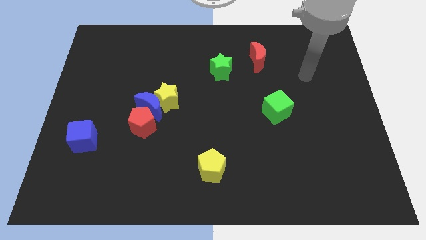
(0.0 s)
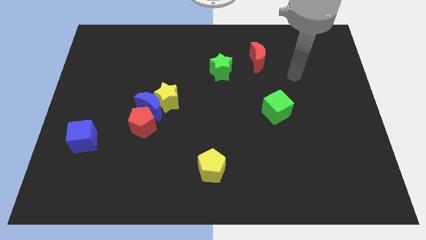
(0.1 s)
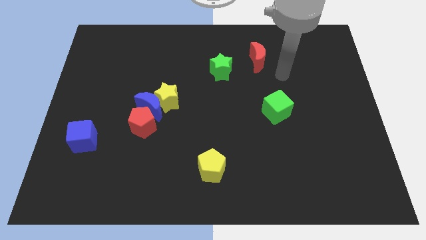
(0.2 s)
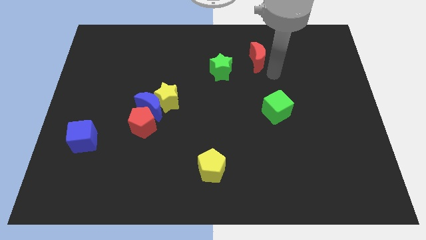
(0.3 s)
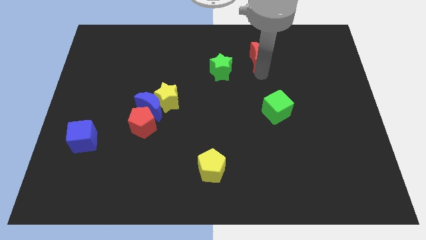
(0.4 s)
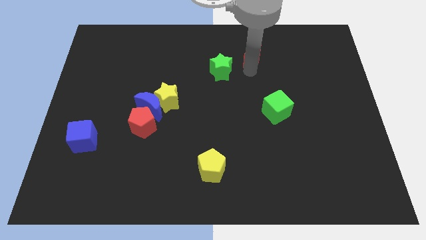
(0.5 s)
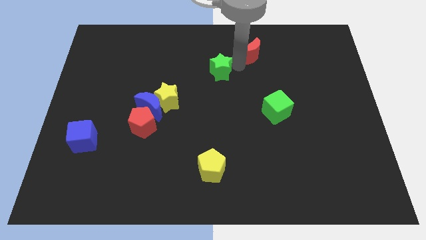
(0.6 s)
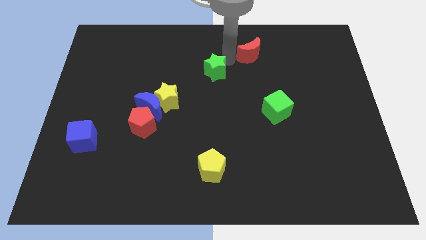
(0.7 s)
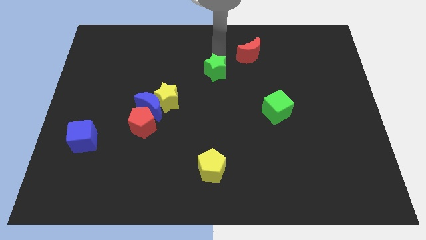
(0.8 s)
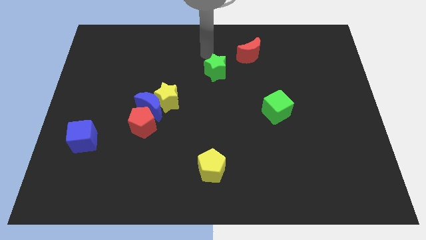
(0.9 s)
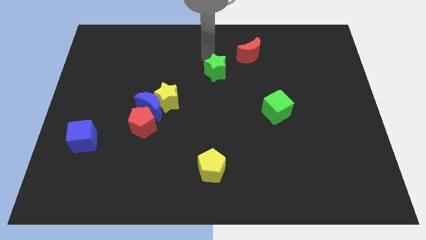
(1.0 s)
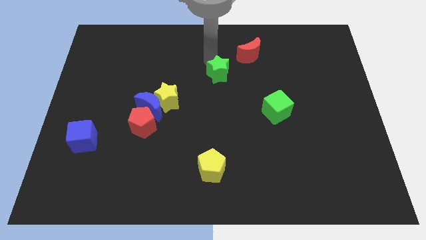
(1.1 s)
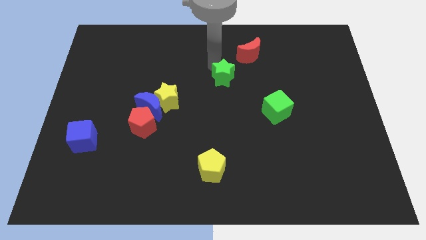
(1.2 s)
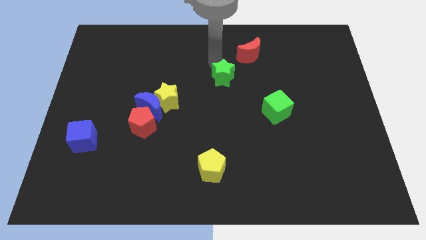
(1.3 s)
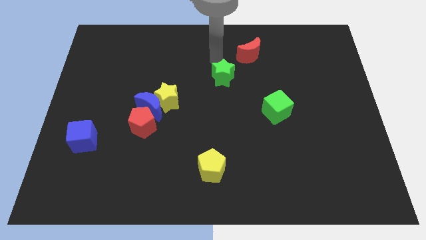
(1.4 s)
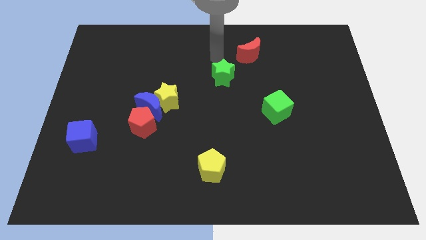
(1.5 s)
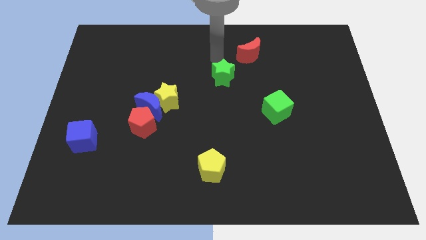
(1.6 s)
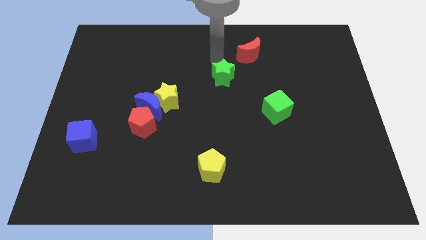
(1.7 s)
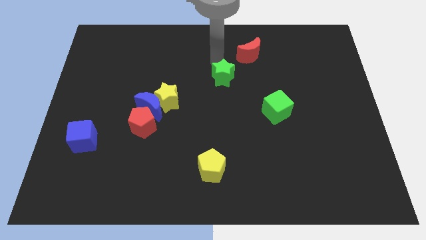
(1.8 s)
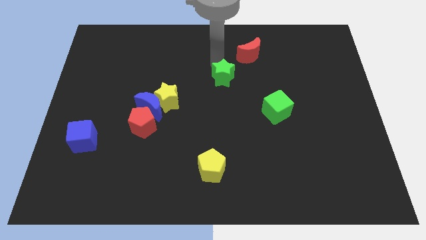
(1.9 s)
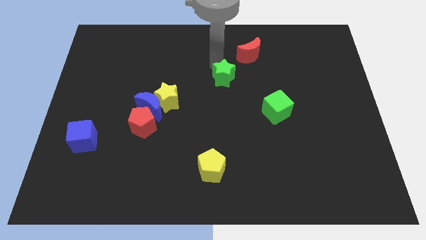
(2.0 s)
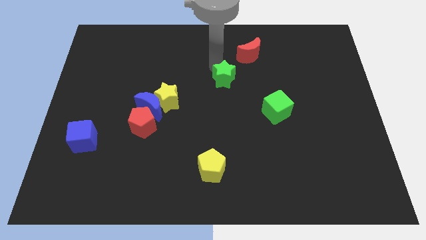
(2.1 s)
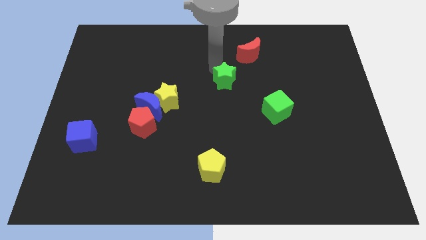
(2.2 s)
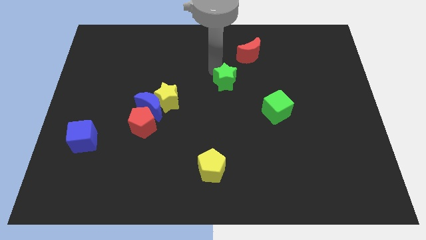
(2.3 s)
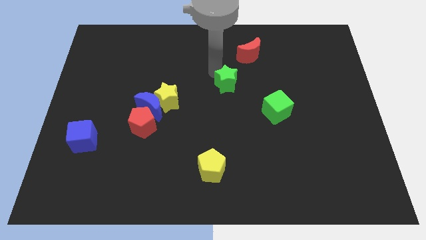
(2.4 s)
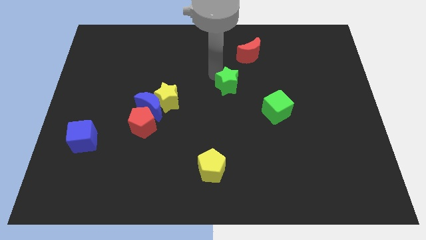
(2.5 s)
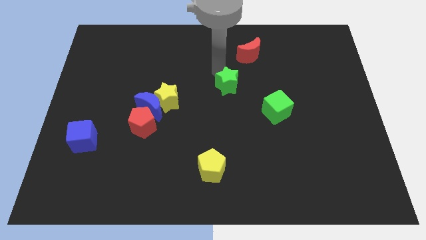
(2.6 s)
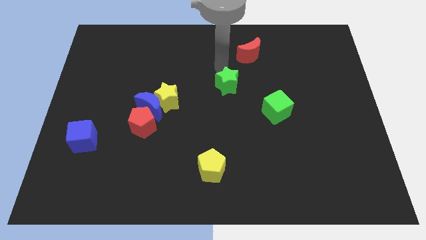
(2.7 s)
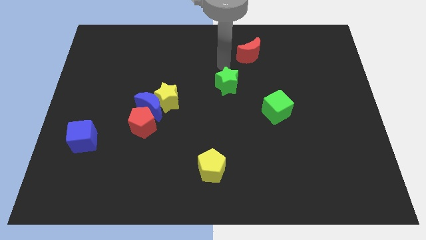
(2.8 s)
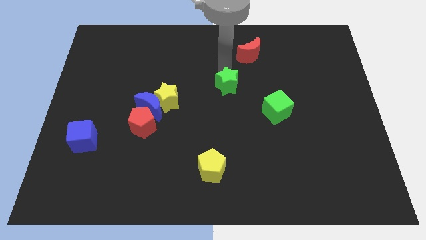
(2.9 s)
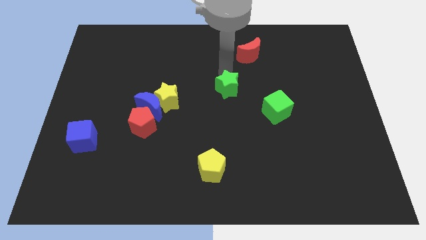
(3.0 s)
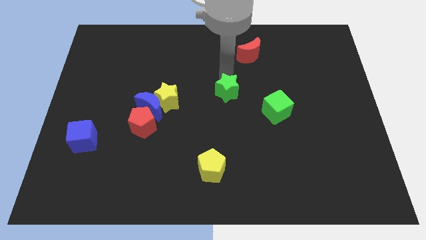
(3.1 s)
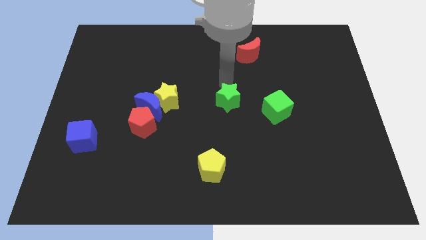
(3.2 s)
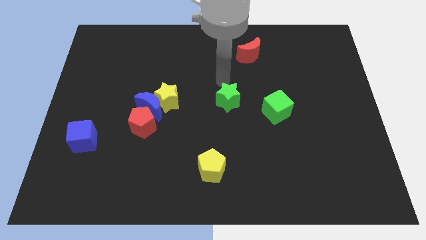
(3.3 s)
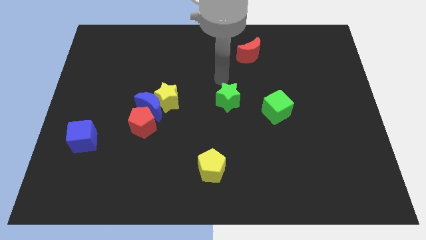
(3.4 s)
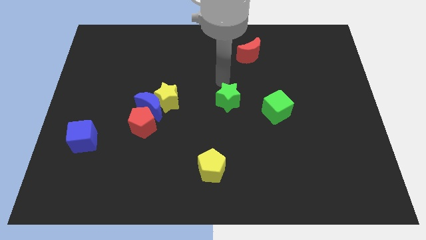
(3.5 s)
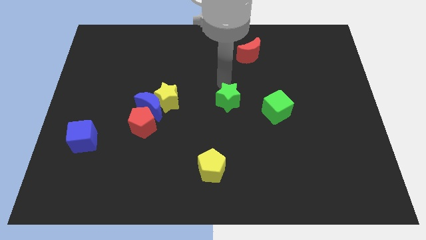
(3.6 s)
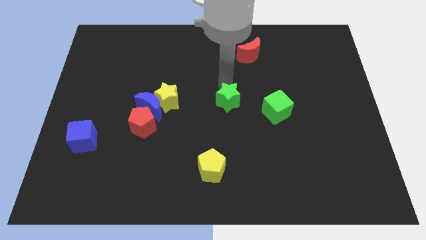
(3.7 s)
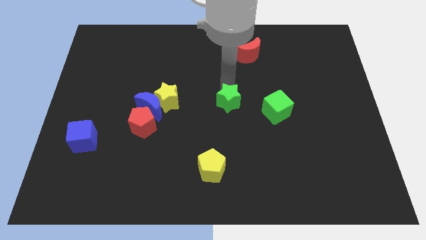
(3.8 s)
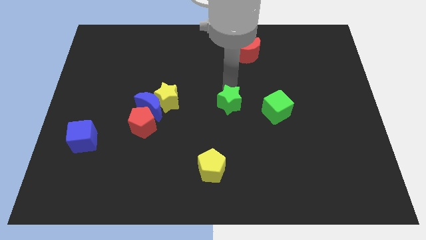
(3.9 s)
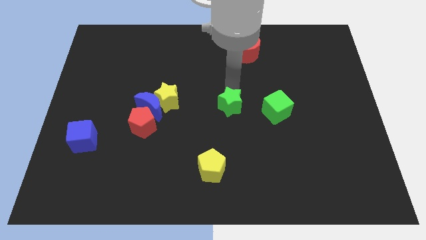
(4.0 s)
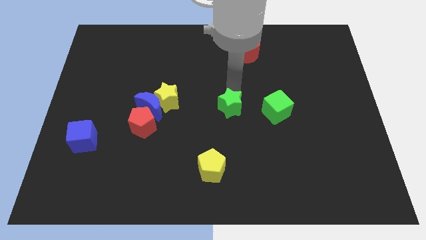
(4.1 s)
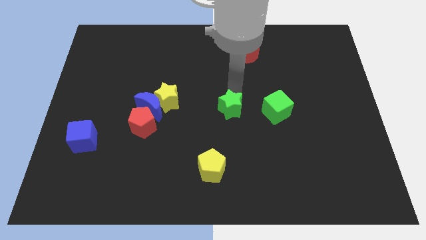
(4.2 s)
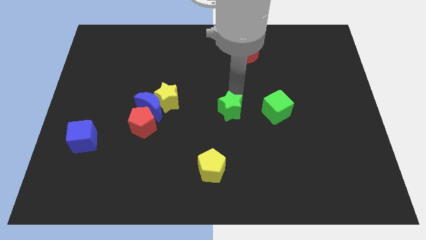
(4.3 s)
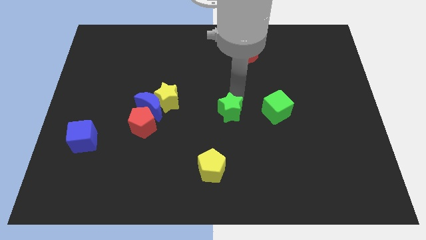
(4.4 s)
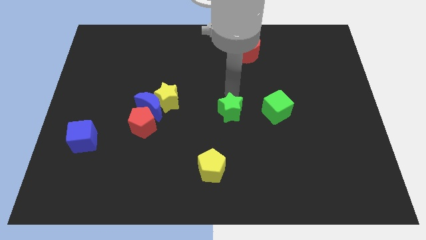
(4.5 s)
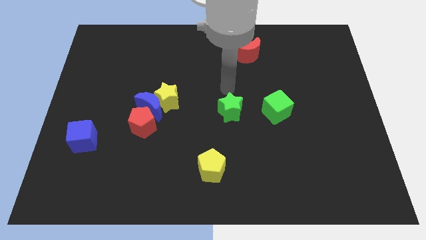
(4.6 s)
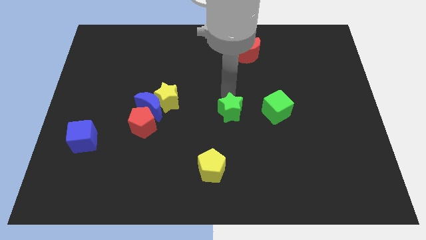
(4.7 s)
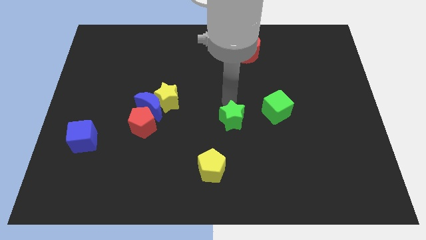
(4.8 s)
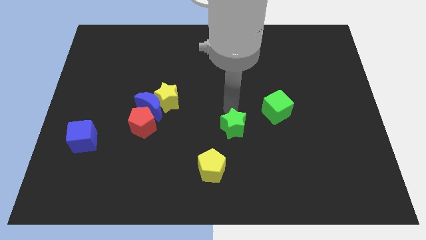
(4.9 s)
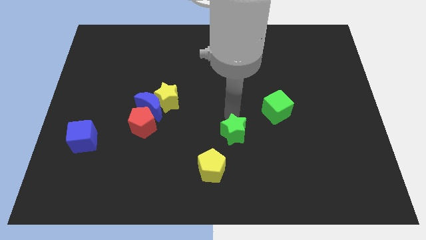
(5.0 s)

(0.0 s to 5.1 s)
put the green star diagonally up and to the right of the yellow pentagon

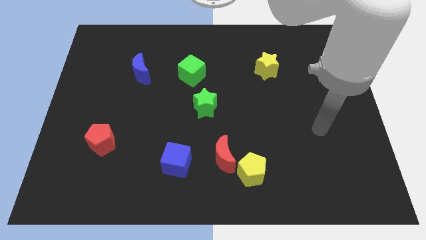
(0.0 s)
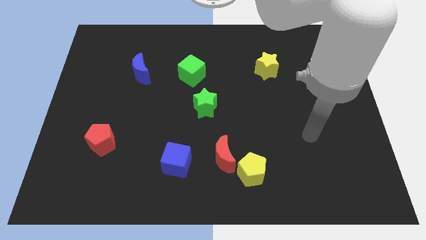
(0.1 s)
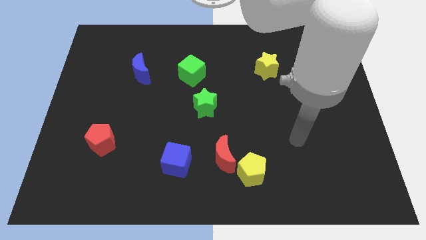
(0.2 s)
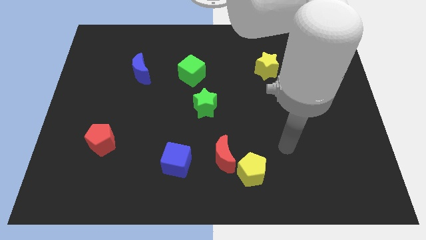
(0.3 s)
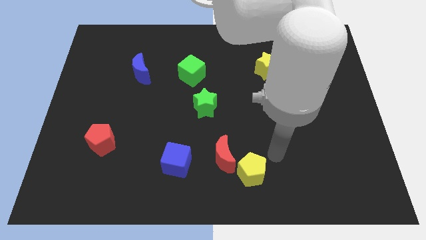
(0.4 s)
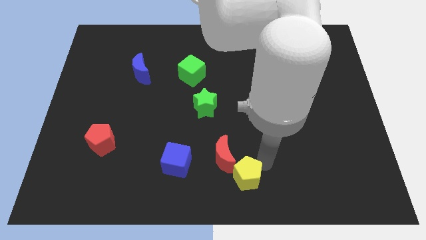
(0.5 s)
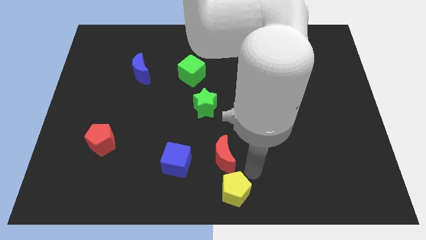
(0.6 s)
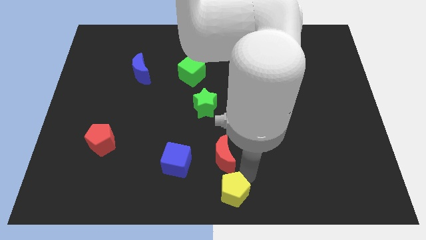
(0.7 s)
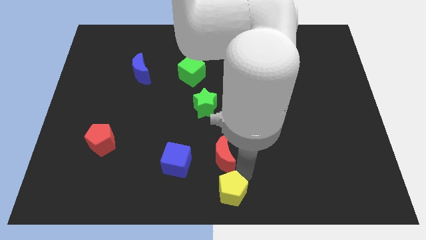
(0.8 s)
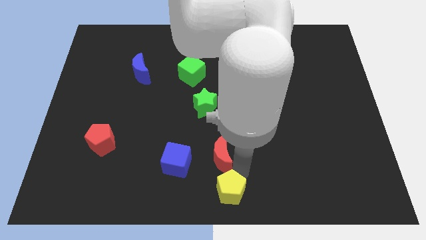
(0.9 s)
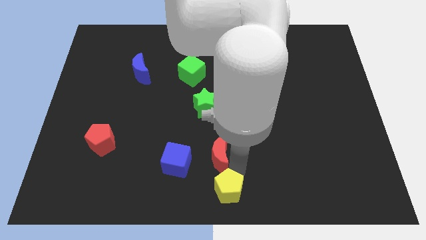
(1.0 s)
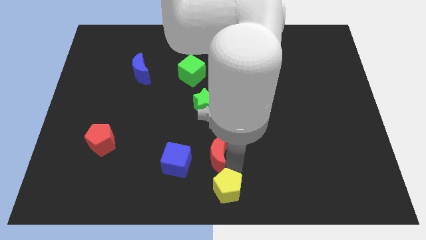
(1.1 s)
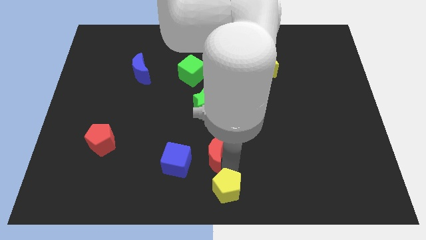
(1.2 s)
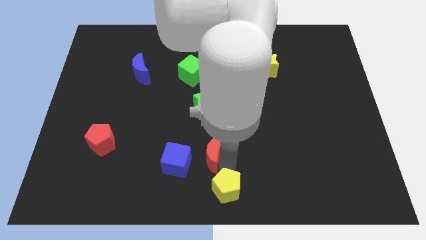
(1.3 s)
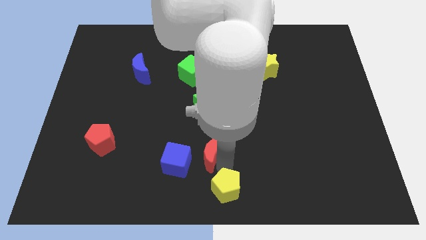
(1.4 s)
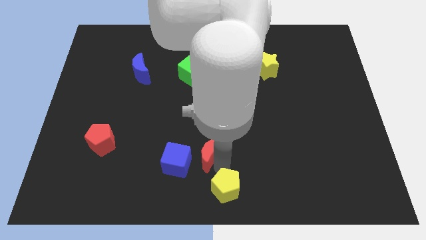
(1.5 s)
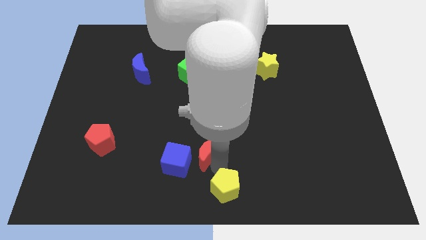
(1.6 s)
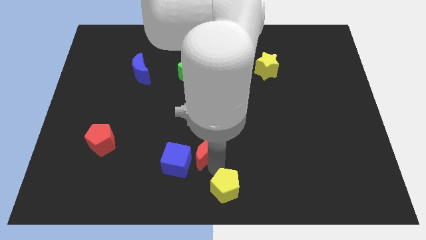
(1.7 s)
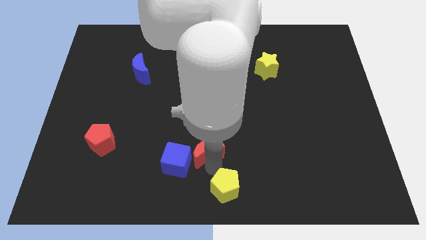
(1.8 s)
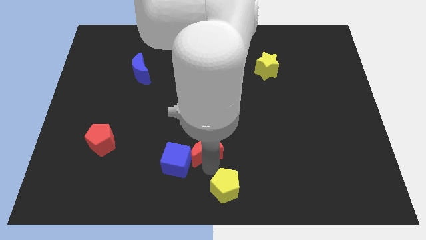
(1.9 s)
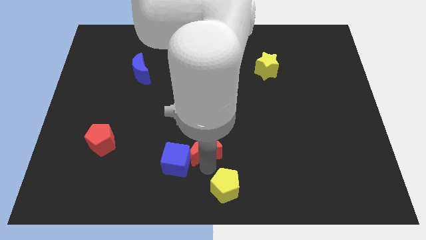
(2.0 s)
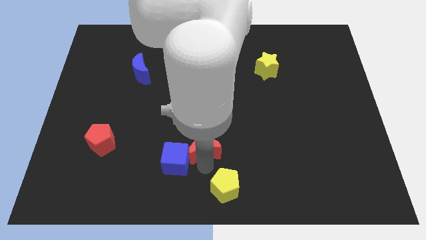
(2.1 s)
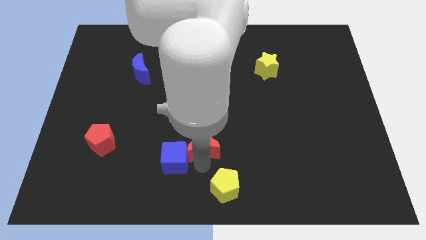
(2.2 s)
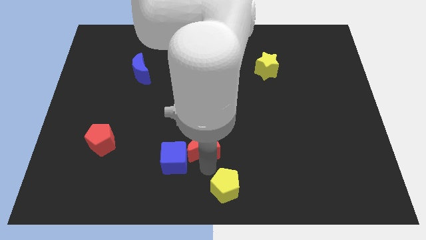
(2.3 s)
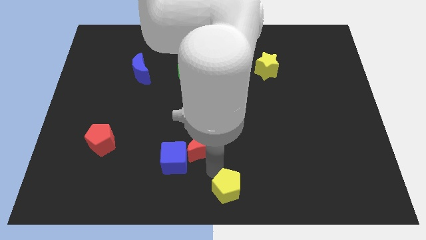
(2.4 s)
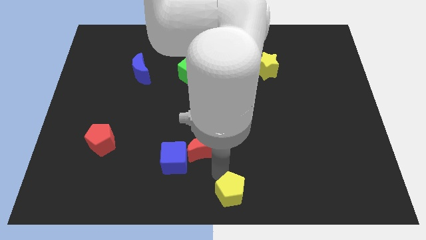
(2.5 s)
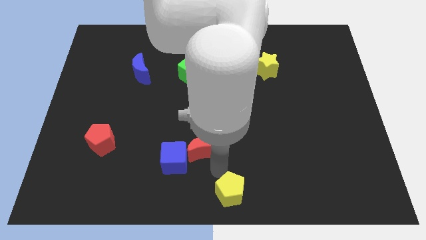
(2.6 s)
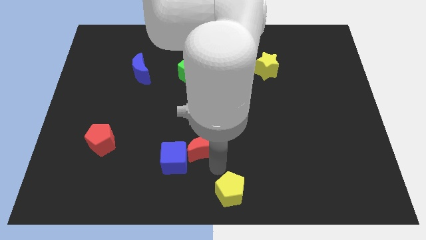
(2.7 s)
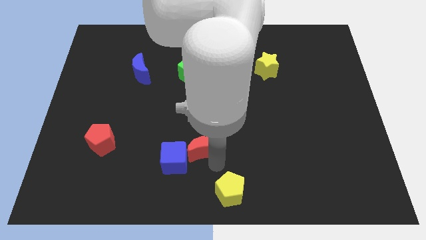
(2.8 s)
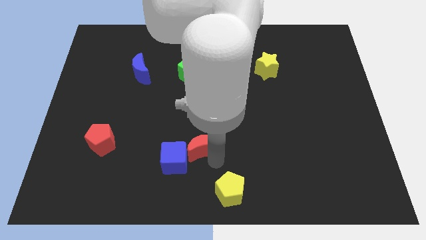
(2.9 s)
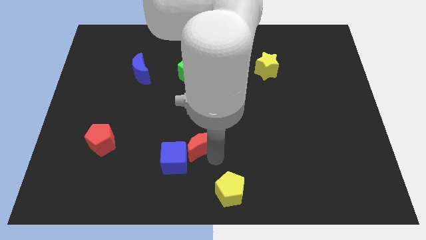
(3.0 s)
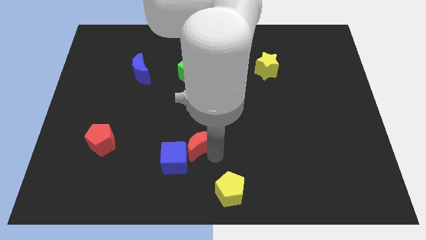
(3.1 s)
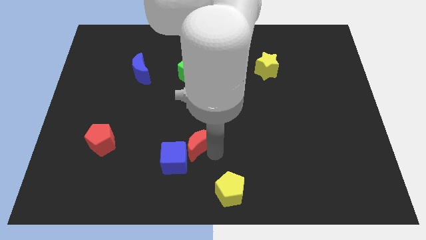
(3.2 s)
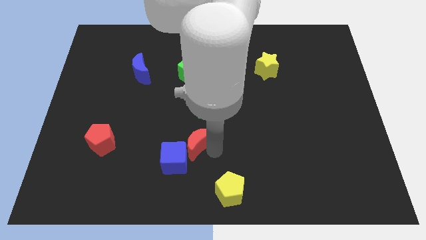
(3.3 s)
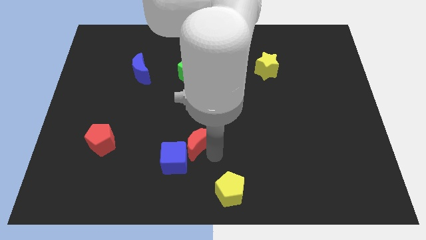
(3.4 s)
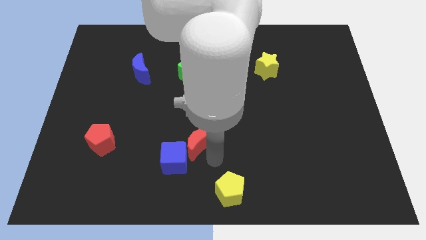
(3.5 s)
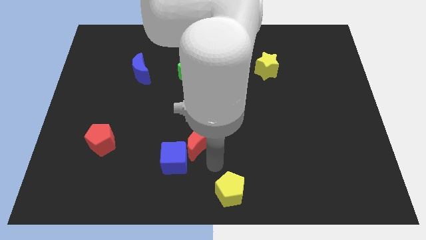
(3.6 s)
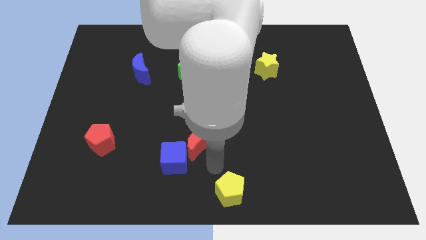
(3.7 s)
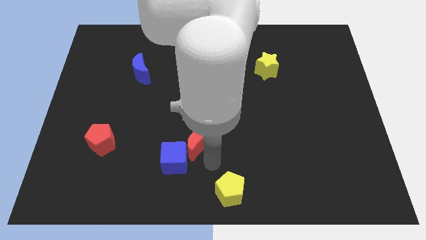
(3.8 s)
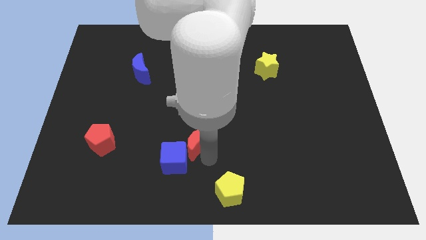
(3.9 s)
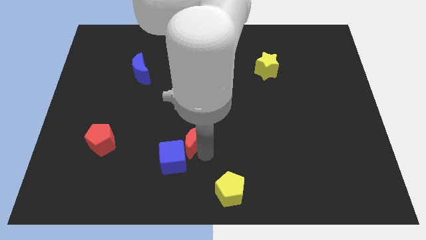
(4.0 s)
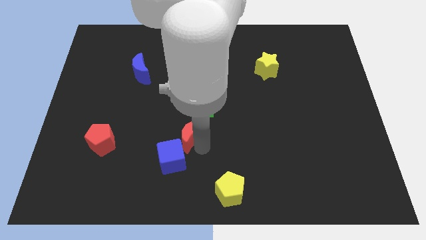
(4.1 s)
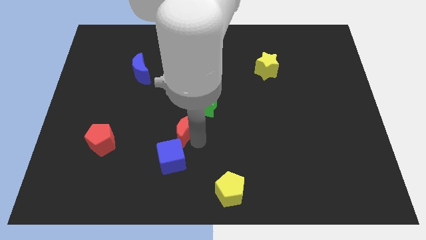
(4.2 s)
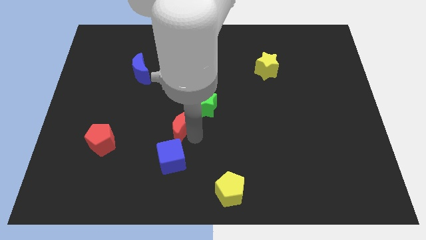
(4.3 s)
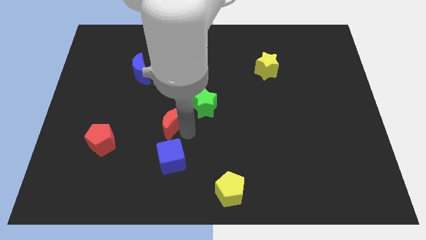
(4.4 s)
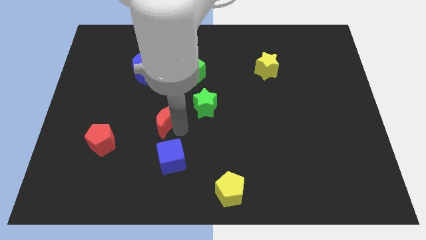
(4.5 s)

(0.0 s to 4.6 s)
move the red moon just left of the green star
